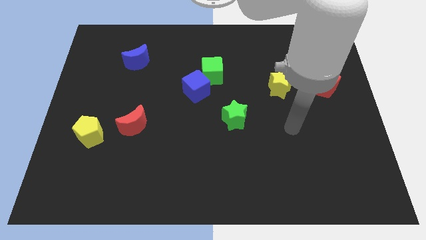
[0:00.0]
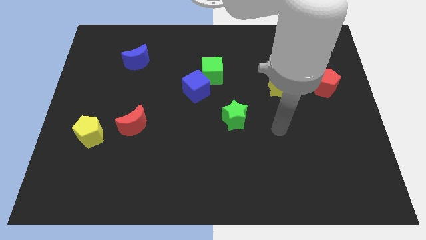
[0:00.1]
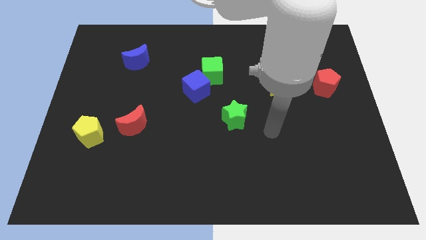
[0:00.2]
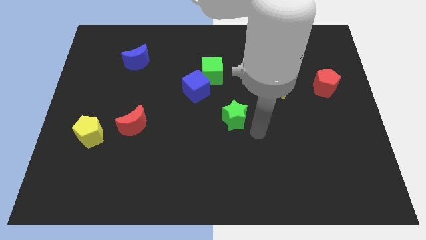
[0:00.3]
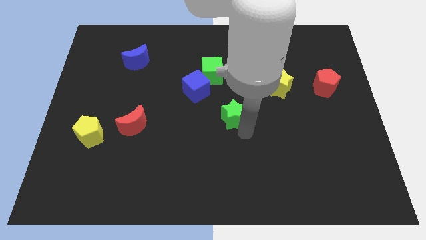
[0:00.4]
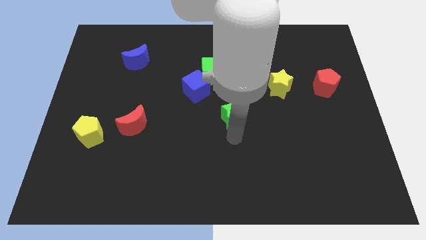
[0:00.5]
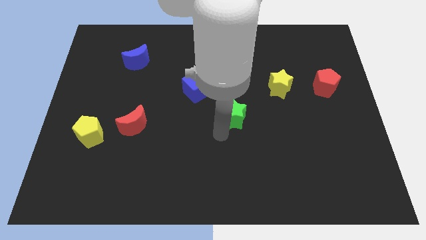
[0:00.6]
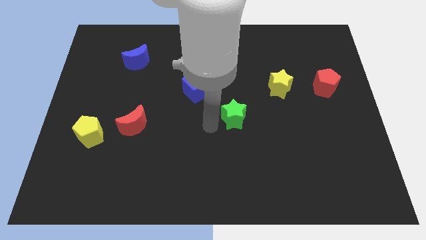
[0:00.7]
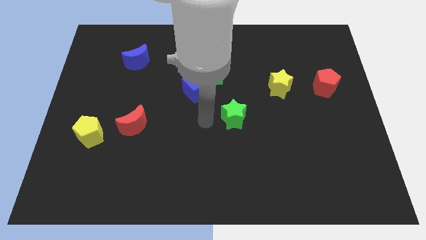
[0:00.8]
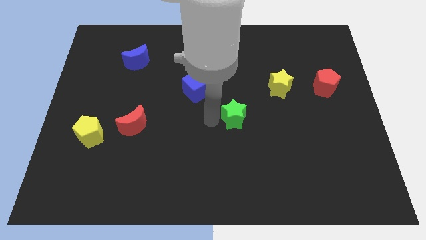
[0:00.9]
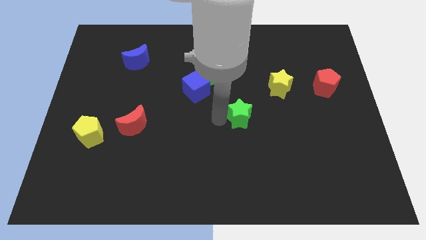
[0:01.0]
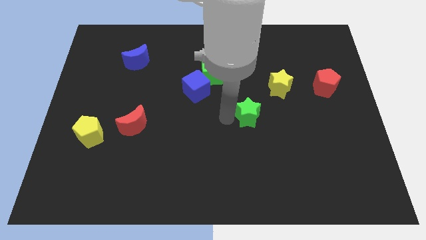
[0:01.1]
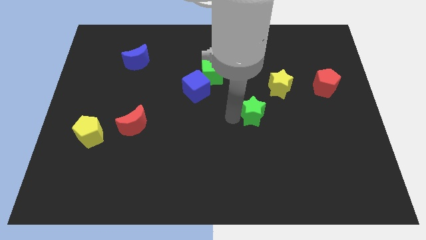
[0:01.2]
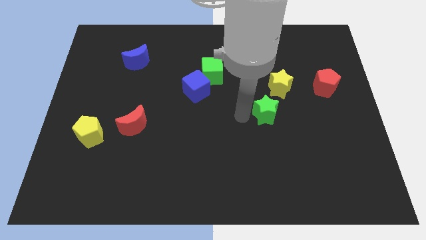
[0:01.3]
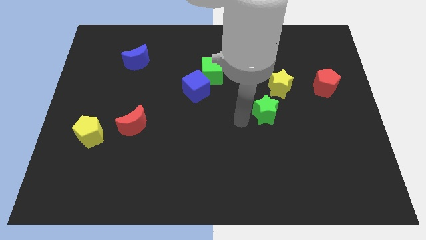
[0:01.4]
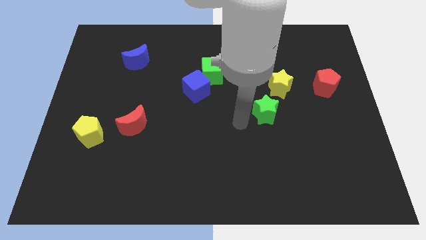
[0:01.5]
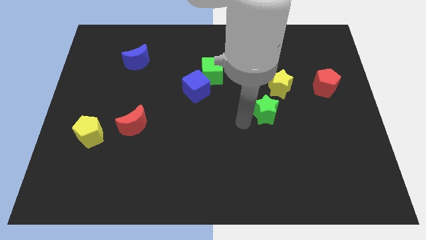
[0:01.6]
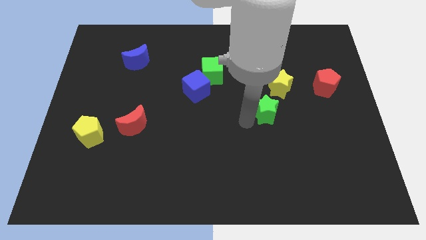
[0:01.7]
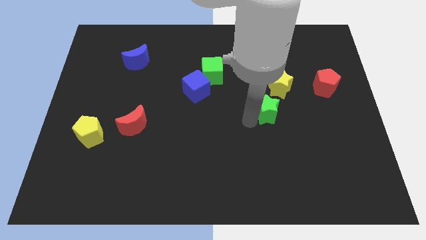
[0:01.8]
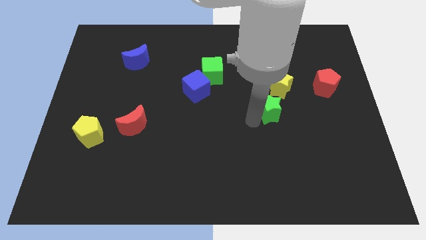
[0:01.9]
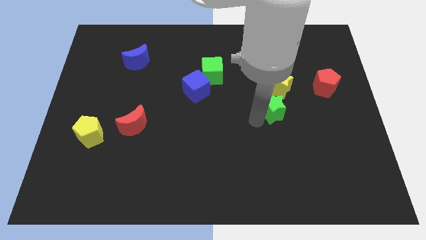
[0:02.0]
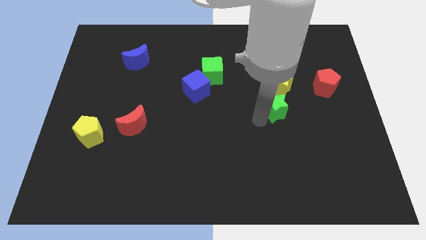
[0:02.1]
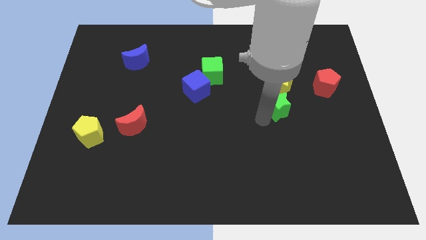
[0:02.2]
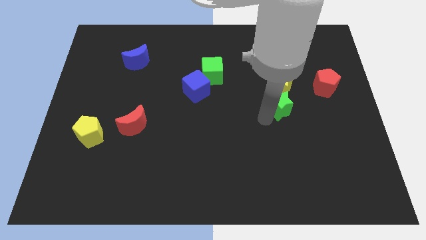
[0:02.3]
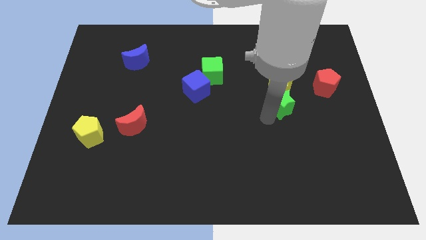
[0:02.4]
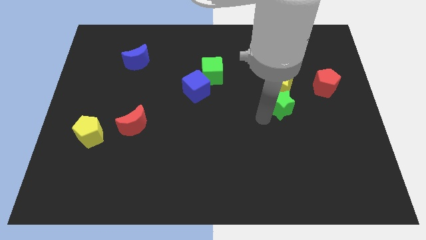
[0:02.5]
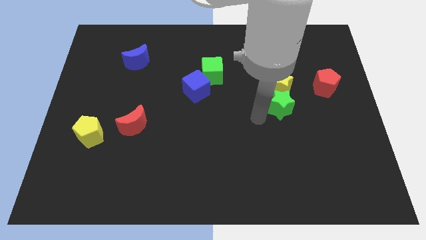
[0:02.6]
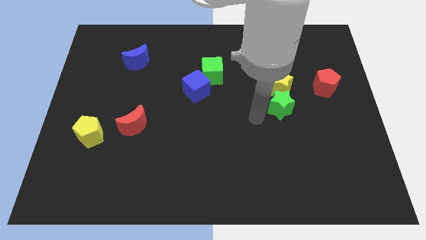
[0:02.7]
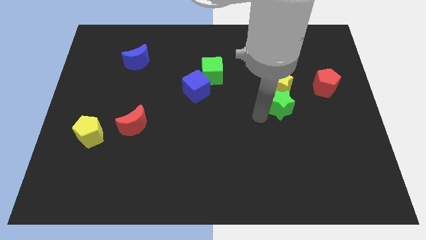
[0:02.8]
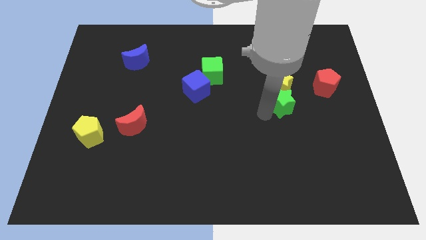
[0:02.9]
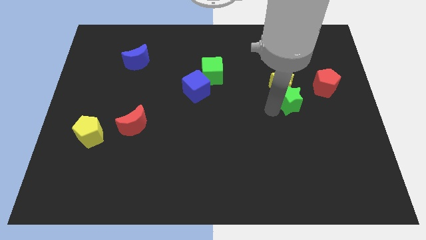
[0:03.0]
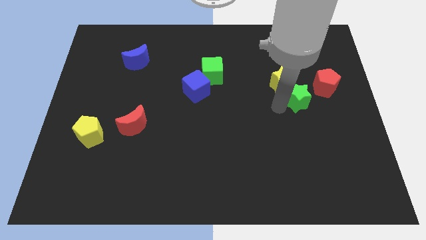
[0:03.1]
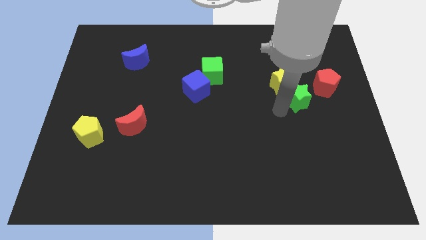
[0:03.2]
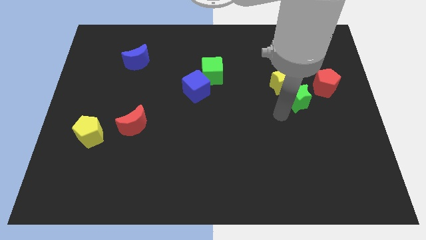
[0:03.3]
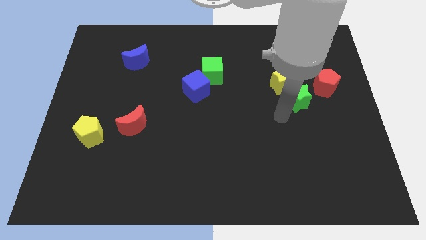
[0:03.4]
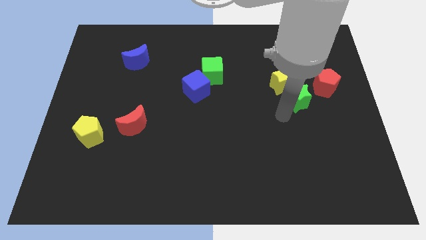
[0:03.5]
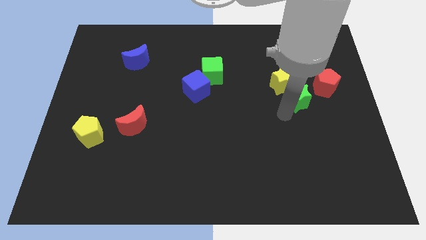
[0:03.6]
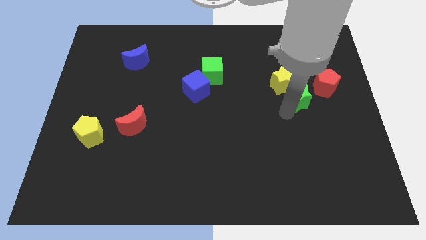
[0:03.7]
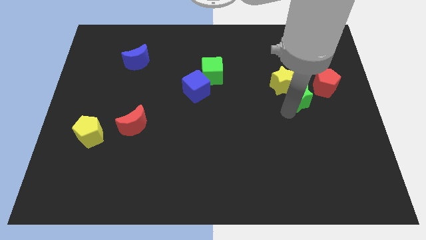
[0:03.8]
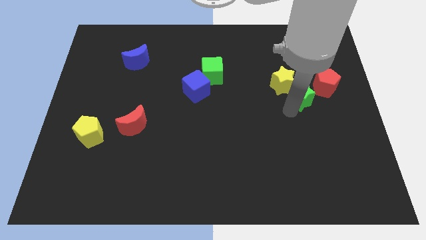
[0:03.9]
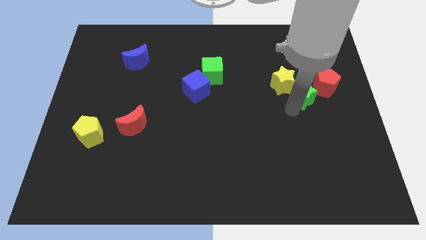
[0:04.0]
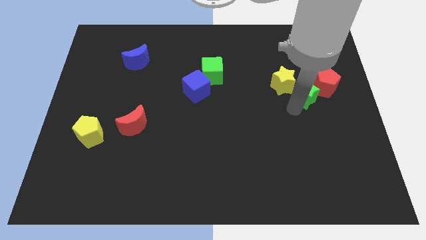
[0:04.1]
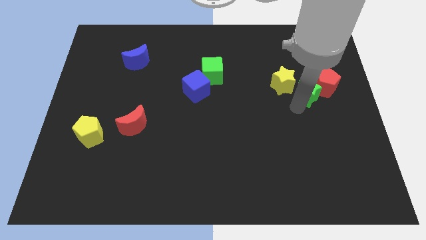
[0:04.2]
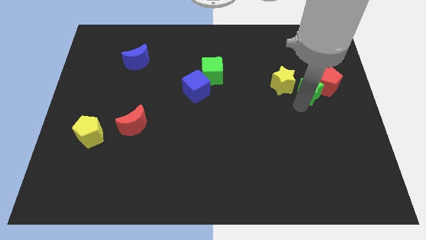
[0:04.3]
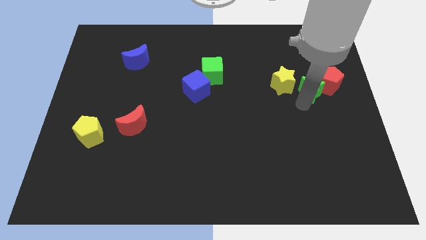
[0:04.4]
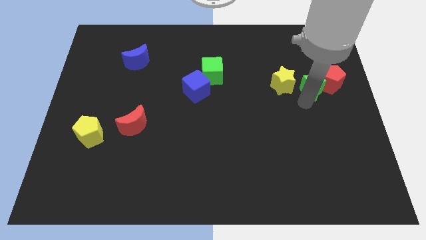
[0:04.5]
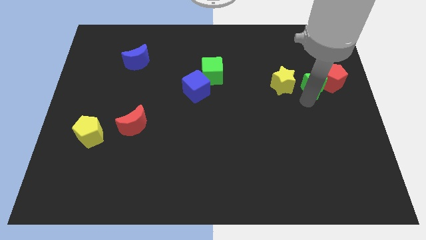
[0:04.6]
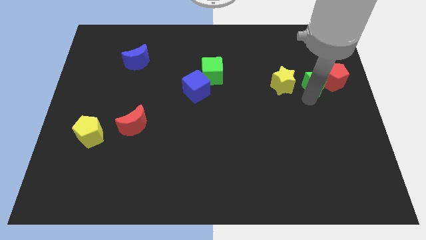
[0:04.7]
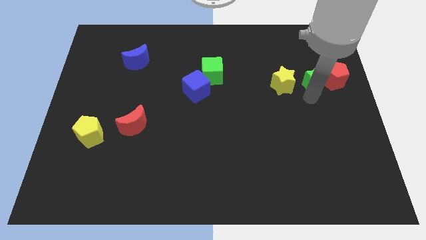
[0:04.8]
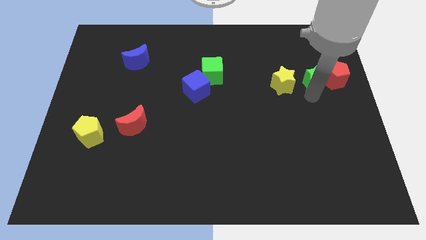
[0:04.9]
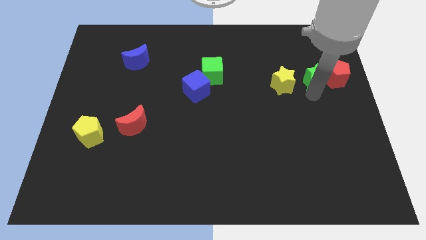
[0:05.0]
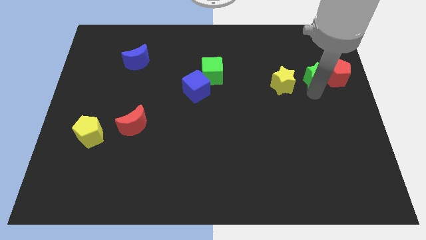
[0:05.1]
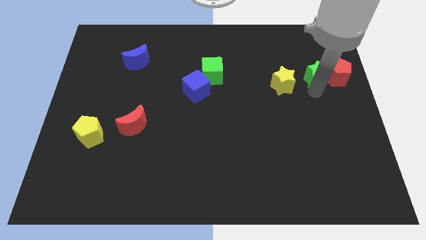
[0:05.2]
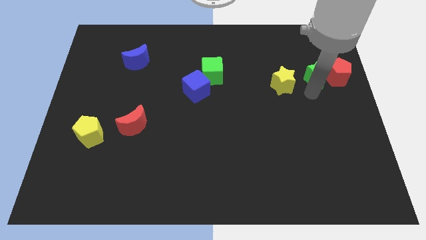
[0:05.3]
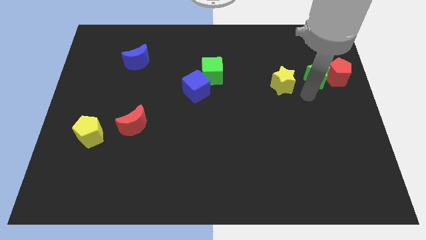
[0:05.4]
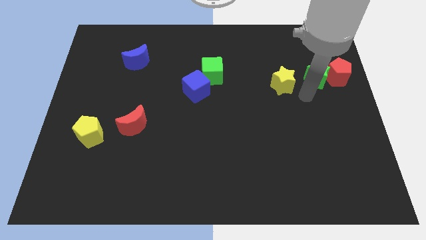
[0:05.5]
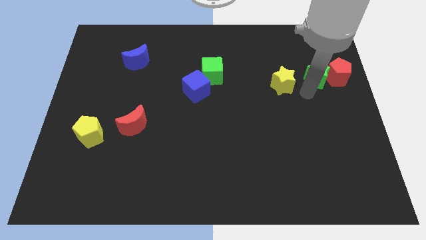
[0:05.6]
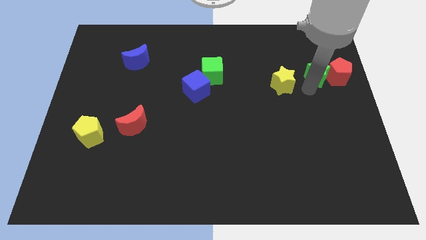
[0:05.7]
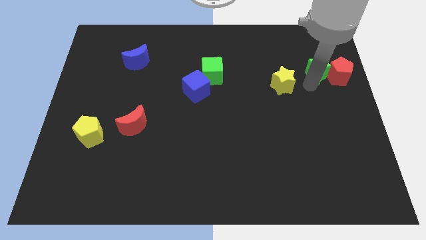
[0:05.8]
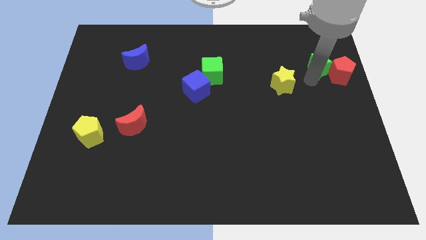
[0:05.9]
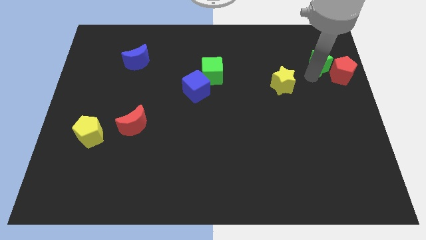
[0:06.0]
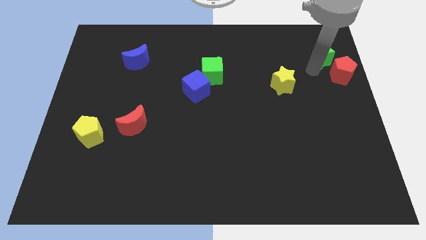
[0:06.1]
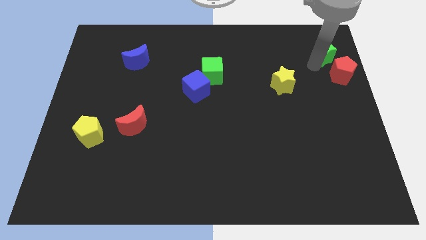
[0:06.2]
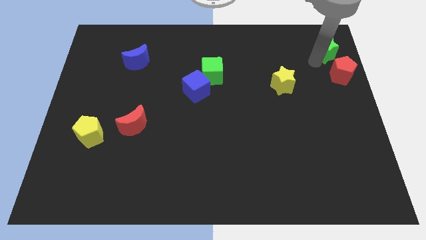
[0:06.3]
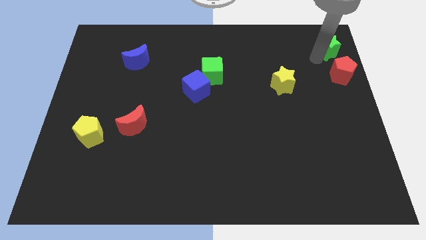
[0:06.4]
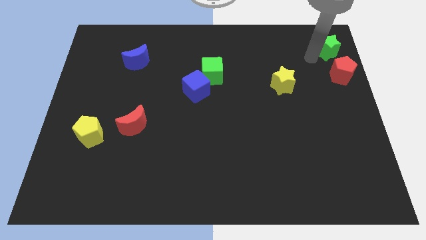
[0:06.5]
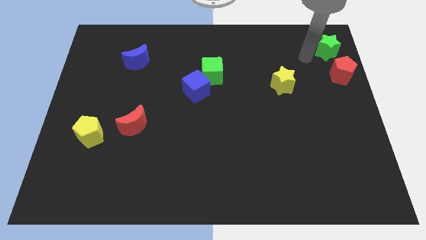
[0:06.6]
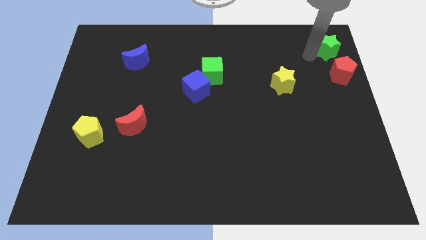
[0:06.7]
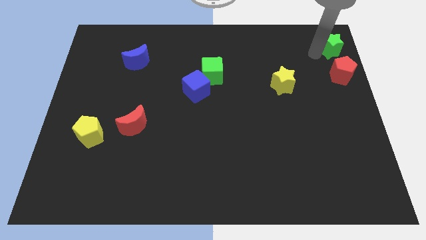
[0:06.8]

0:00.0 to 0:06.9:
push the green star to the upper right corner

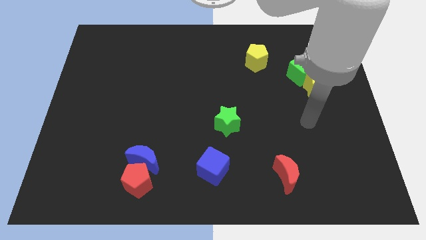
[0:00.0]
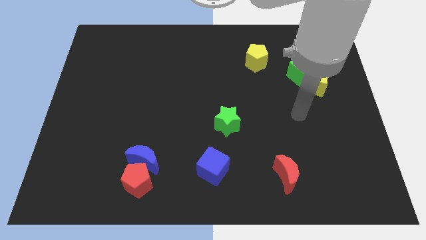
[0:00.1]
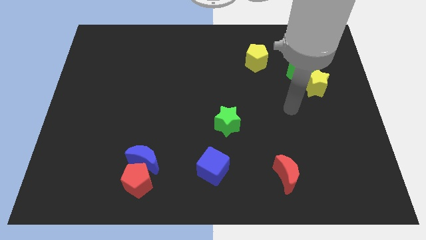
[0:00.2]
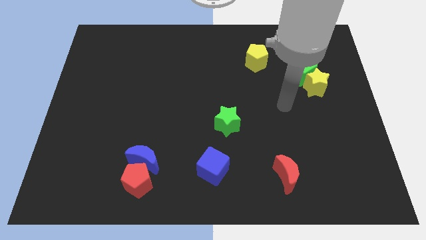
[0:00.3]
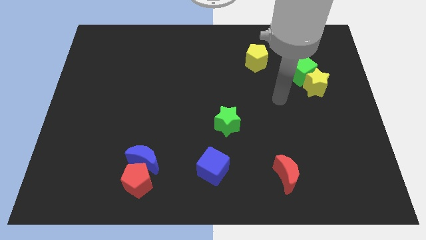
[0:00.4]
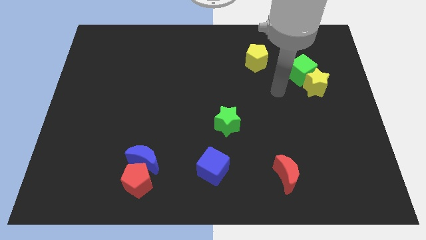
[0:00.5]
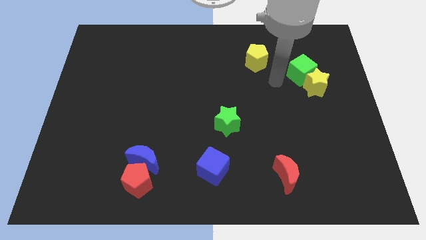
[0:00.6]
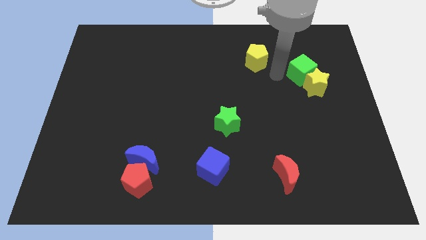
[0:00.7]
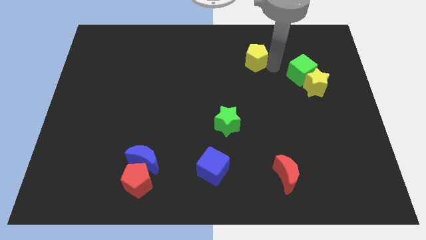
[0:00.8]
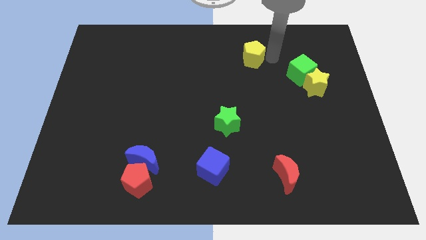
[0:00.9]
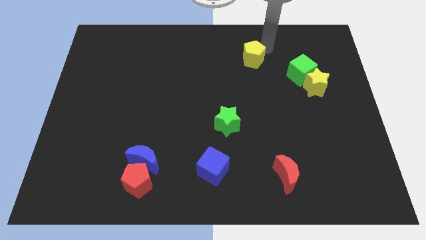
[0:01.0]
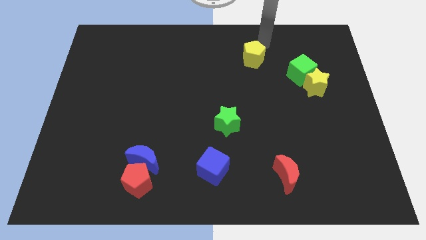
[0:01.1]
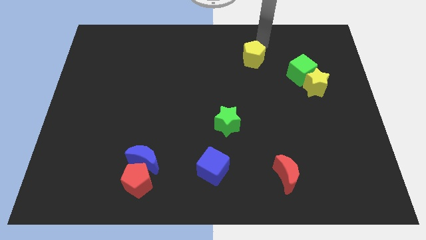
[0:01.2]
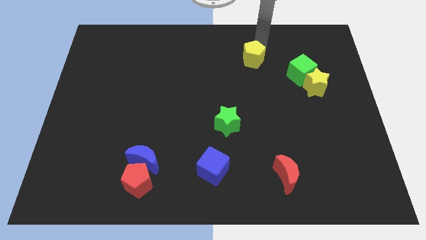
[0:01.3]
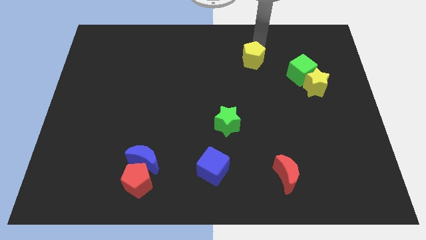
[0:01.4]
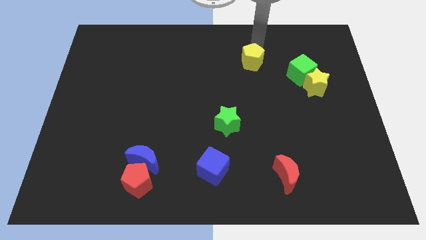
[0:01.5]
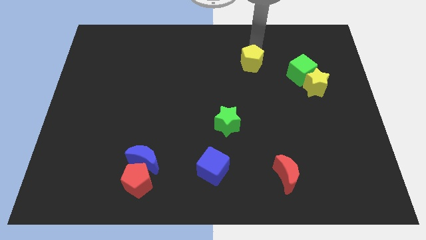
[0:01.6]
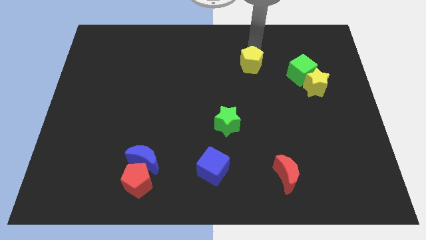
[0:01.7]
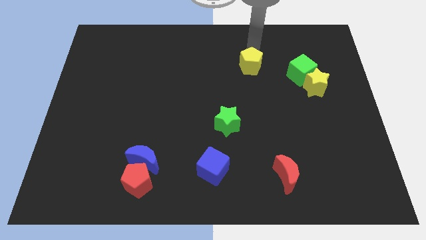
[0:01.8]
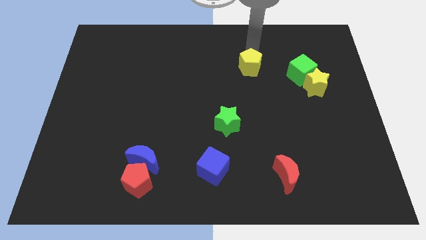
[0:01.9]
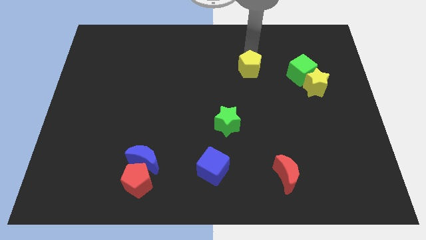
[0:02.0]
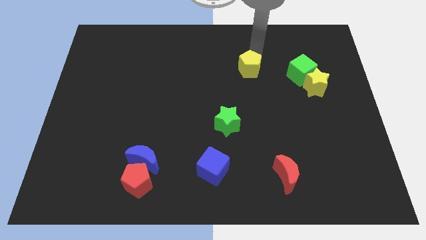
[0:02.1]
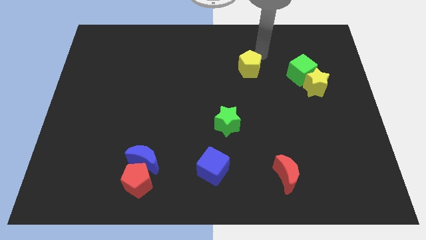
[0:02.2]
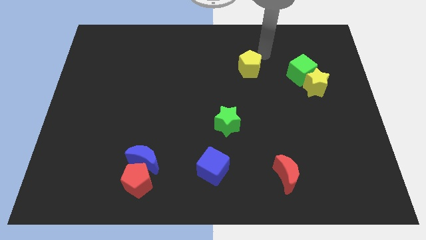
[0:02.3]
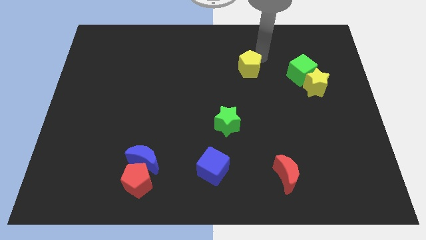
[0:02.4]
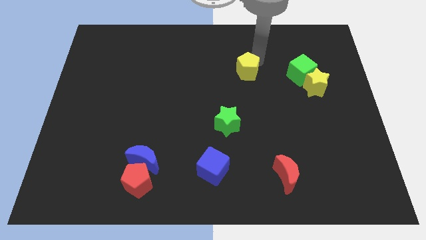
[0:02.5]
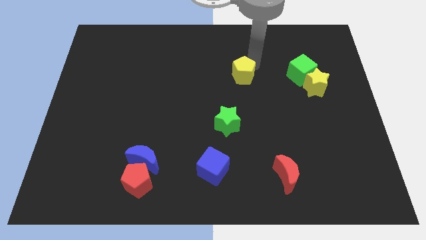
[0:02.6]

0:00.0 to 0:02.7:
put the yellow pentagon to the center
